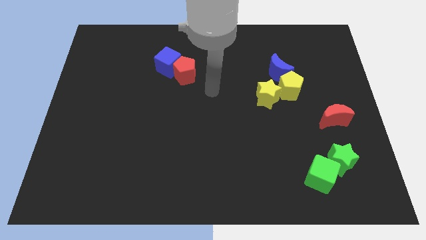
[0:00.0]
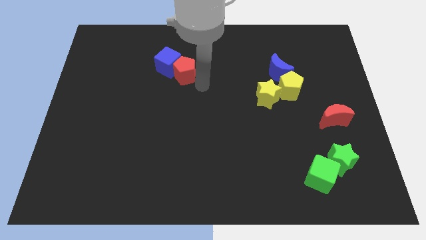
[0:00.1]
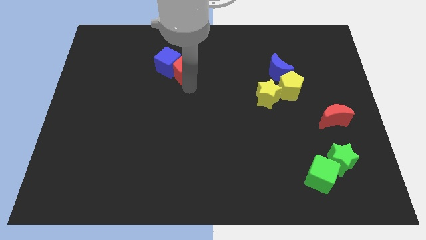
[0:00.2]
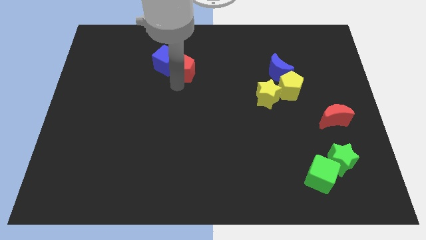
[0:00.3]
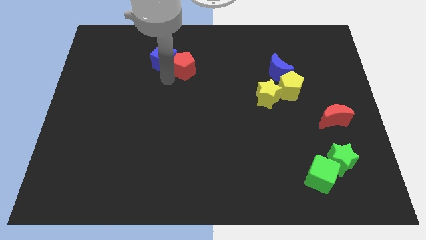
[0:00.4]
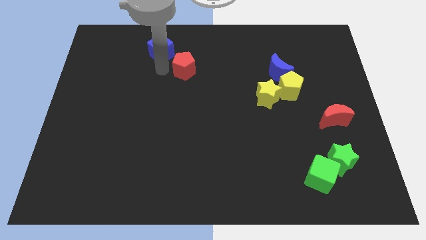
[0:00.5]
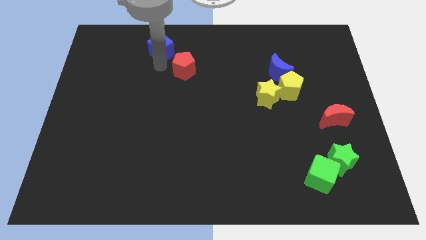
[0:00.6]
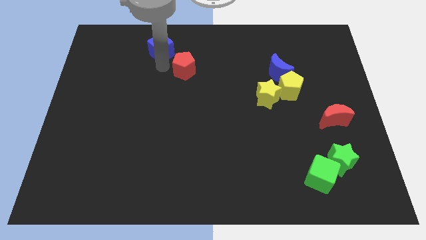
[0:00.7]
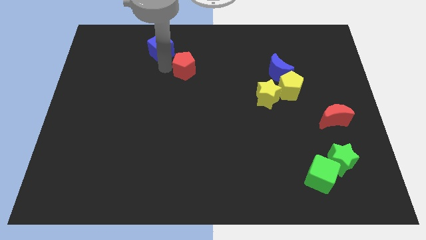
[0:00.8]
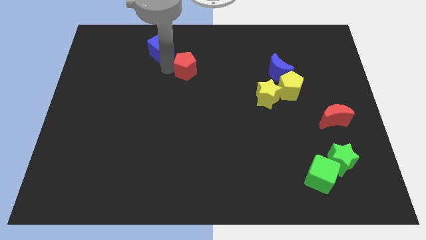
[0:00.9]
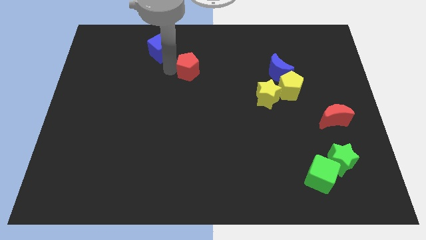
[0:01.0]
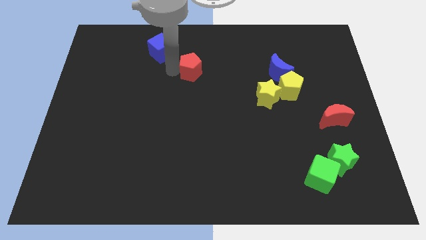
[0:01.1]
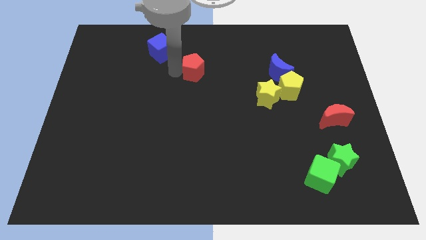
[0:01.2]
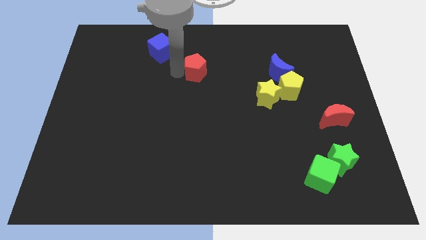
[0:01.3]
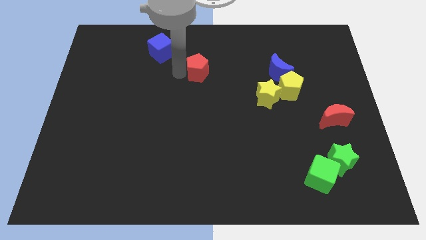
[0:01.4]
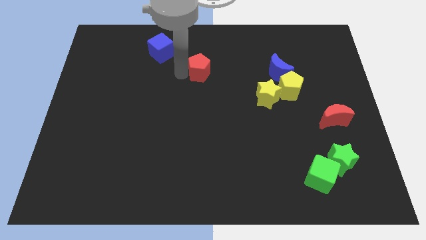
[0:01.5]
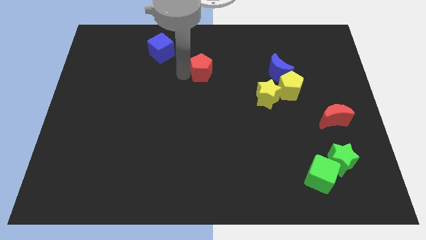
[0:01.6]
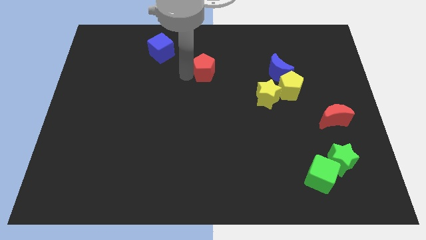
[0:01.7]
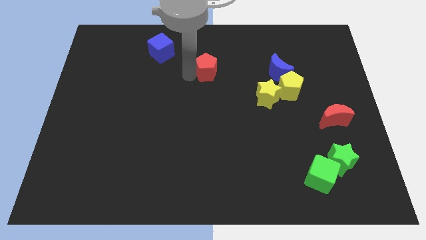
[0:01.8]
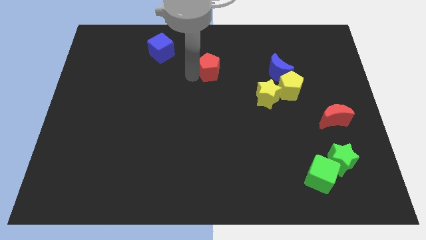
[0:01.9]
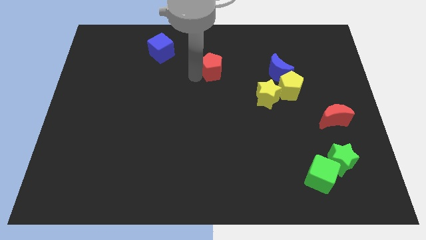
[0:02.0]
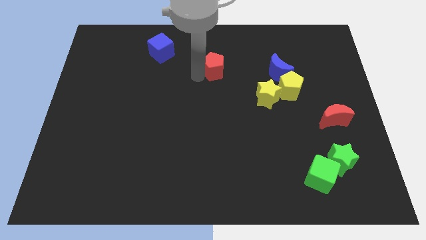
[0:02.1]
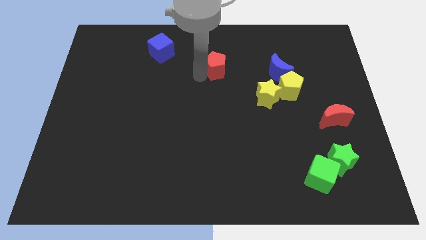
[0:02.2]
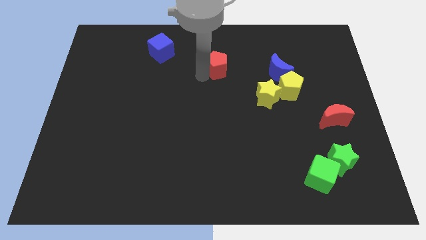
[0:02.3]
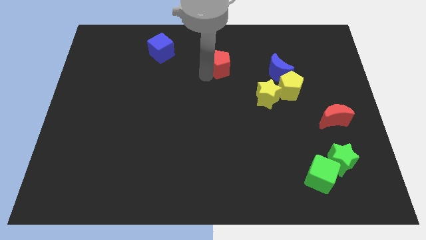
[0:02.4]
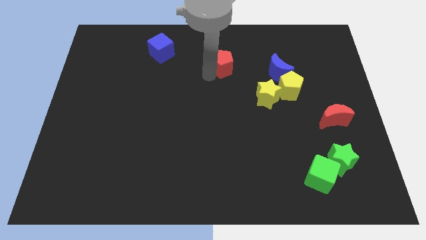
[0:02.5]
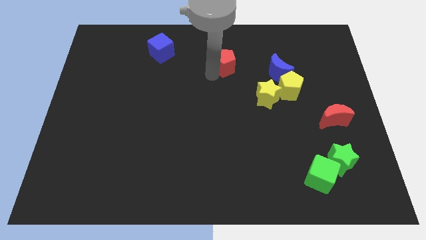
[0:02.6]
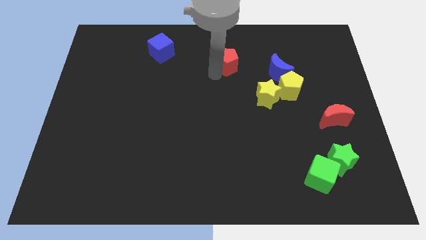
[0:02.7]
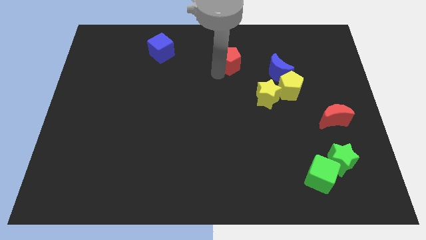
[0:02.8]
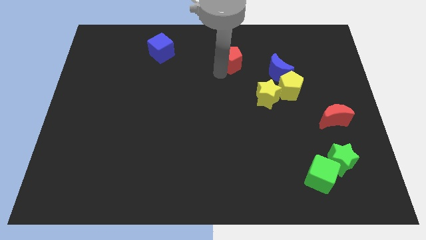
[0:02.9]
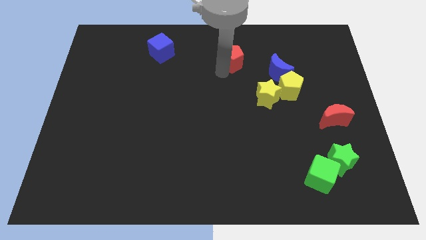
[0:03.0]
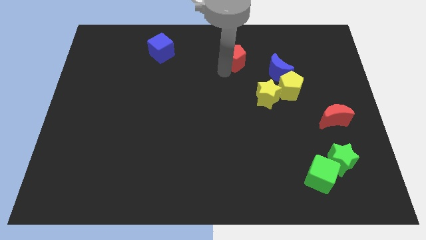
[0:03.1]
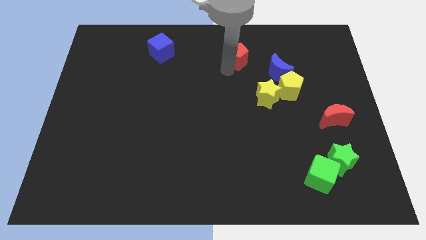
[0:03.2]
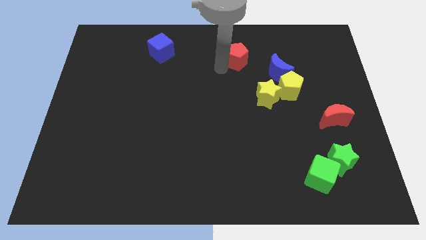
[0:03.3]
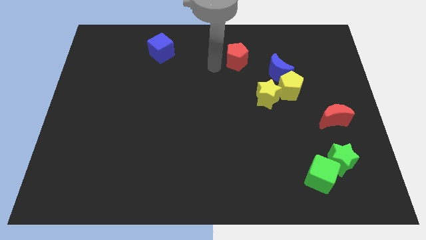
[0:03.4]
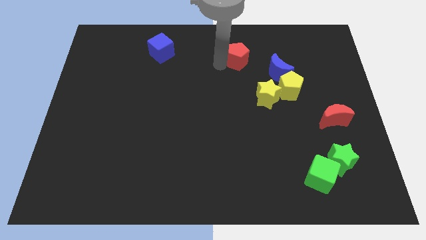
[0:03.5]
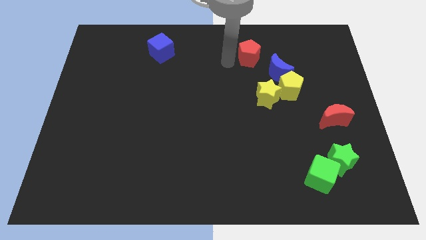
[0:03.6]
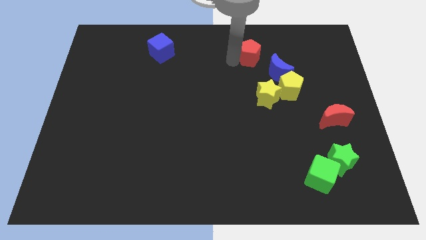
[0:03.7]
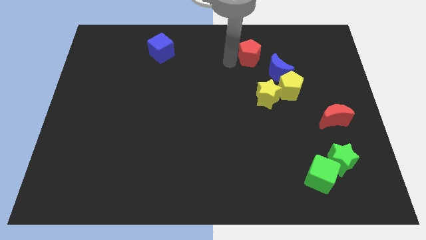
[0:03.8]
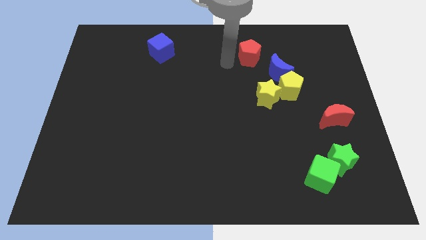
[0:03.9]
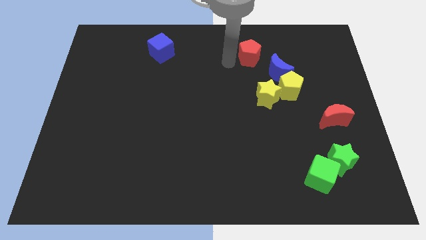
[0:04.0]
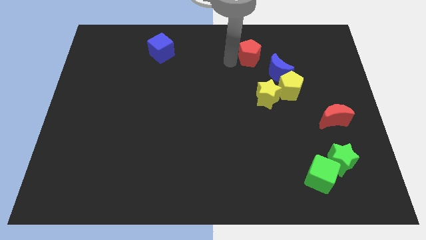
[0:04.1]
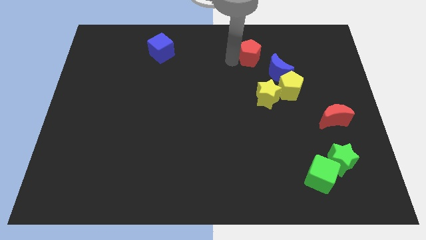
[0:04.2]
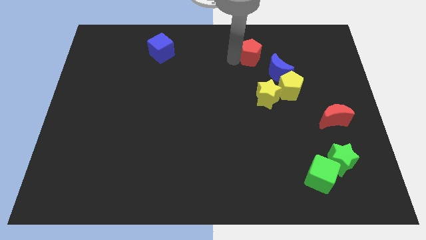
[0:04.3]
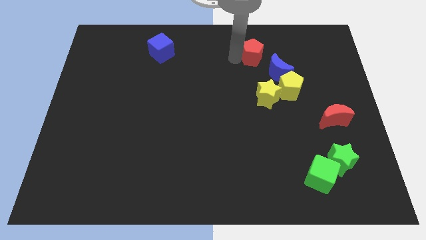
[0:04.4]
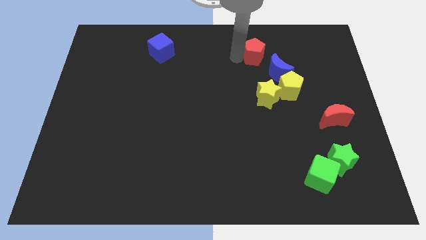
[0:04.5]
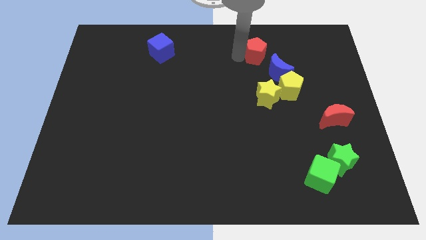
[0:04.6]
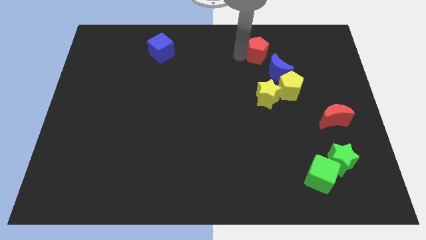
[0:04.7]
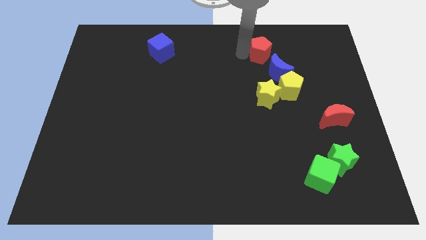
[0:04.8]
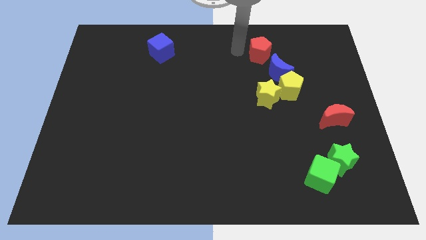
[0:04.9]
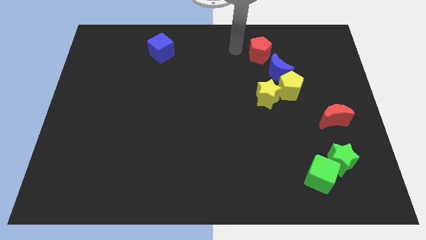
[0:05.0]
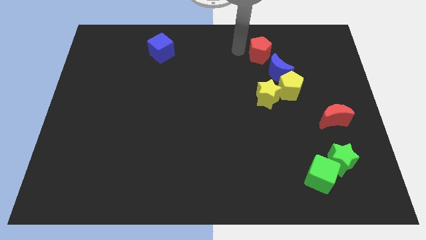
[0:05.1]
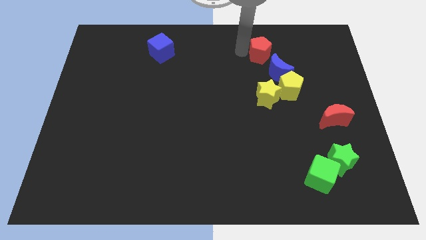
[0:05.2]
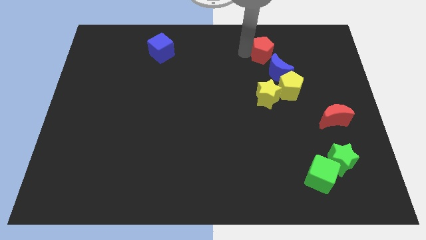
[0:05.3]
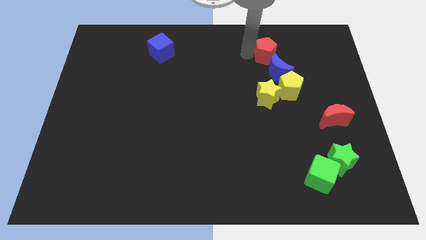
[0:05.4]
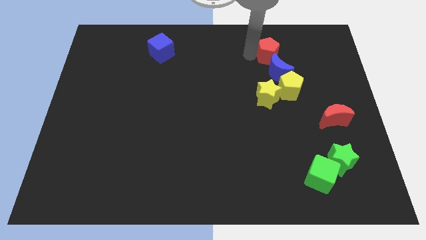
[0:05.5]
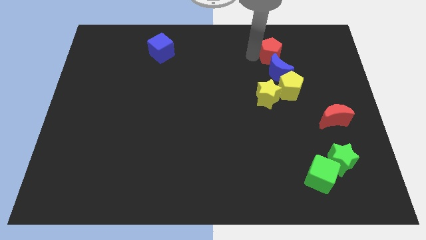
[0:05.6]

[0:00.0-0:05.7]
push the red pentagon to the right

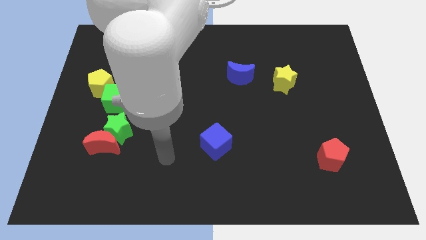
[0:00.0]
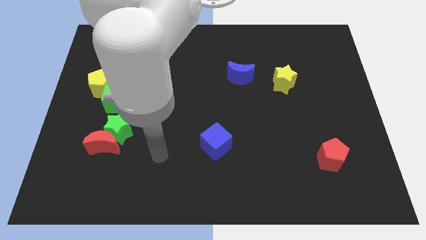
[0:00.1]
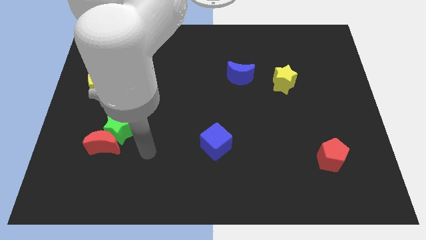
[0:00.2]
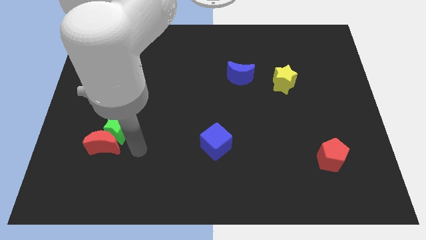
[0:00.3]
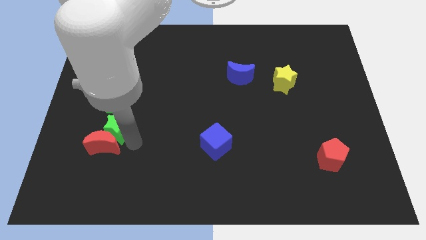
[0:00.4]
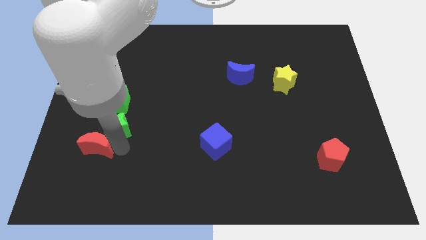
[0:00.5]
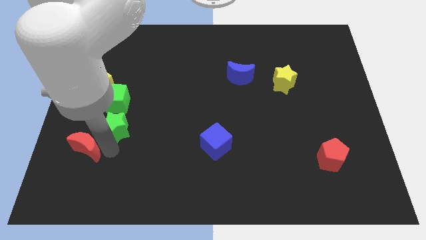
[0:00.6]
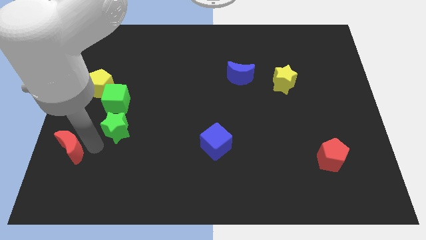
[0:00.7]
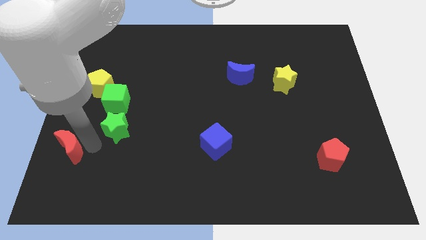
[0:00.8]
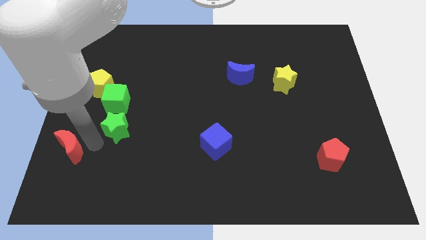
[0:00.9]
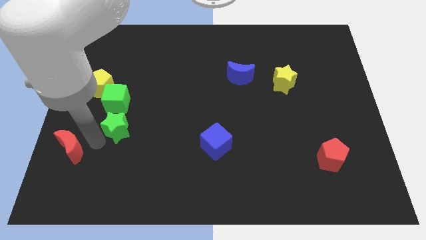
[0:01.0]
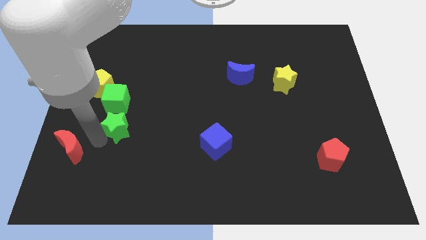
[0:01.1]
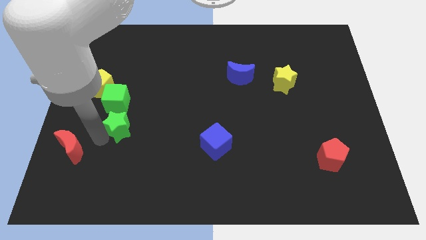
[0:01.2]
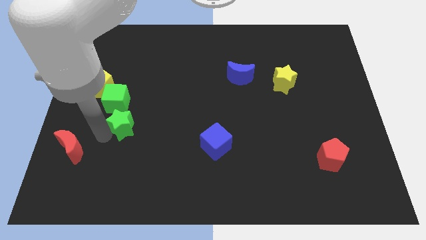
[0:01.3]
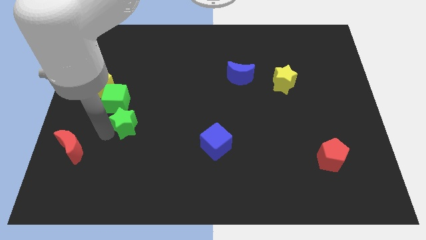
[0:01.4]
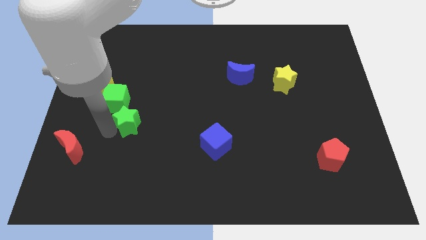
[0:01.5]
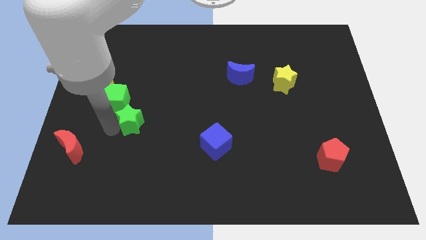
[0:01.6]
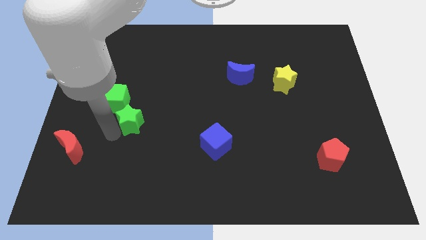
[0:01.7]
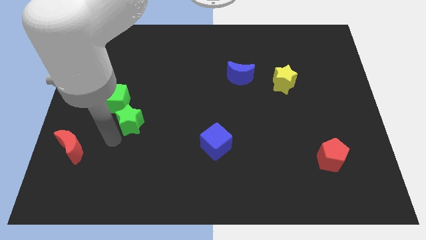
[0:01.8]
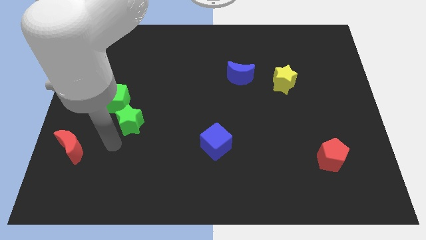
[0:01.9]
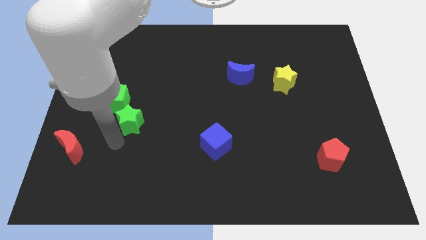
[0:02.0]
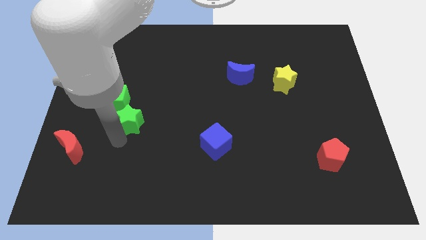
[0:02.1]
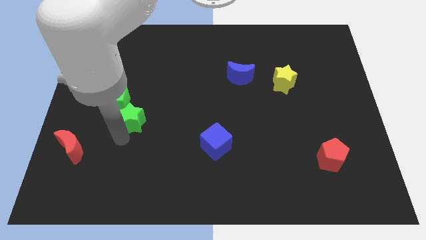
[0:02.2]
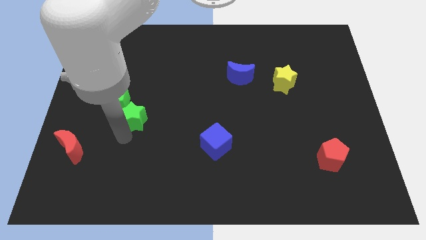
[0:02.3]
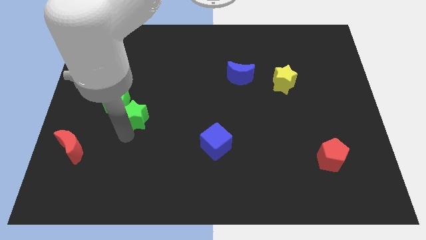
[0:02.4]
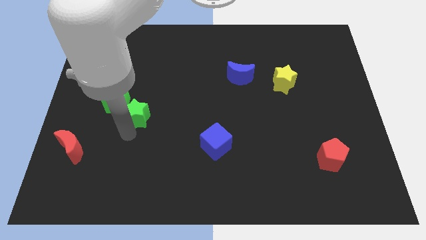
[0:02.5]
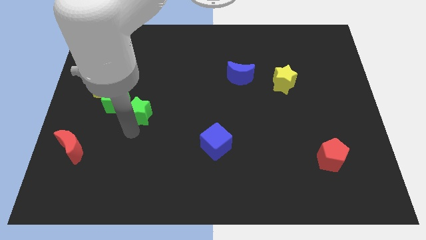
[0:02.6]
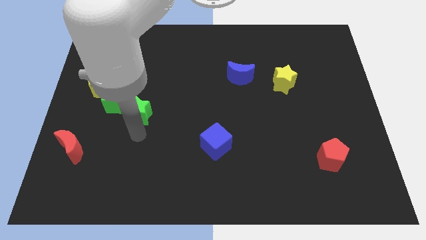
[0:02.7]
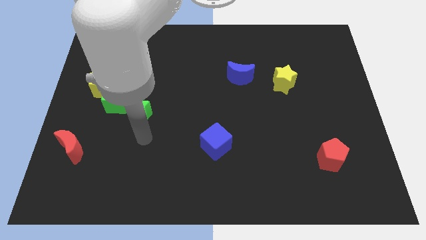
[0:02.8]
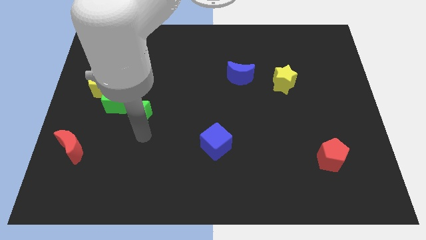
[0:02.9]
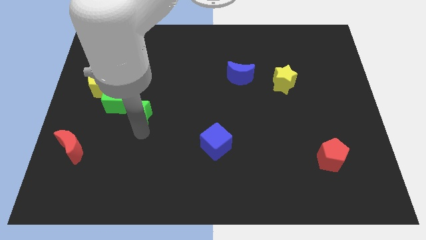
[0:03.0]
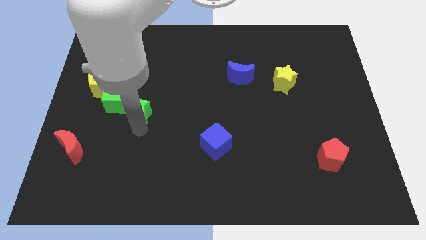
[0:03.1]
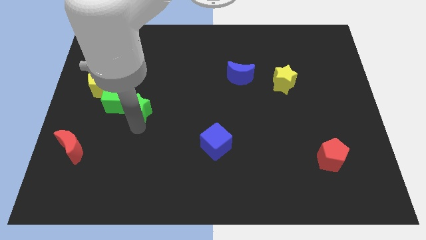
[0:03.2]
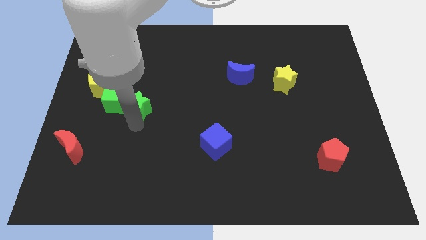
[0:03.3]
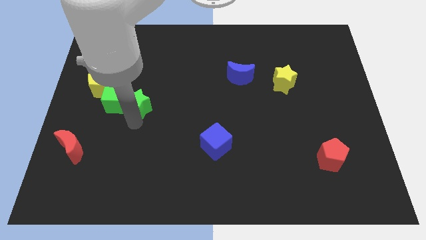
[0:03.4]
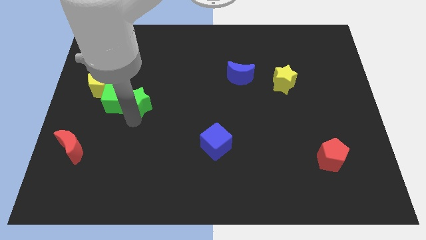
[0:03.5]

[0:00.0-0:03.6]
slide the green star a little bit upwards
